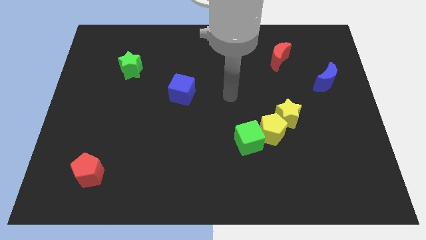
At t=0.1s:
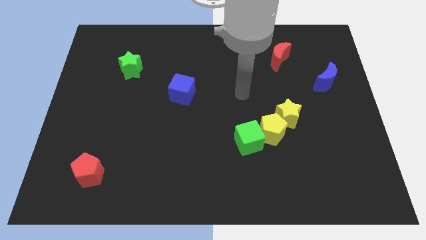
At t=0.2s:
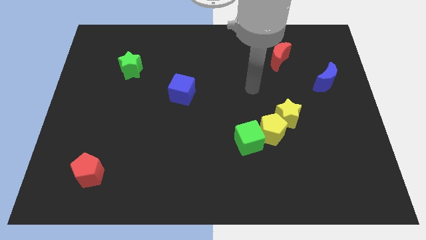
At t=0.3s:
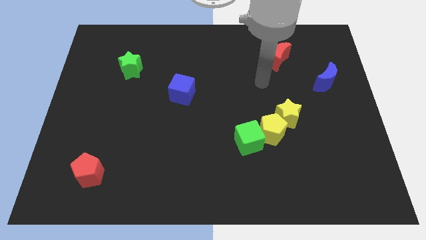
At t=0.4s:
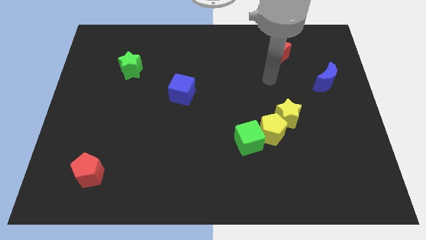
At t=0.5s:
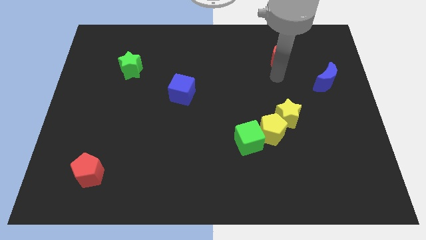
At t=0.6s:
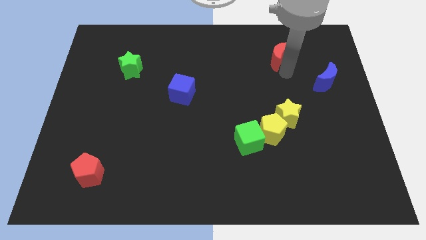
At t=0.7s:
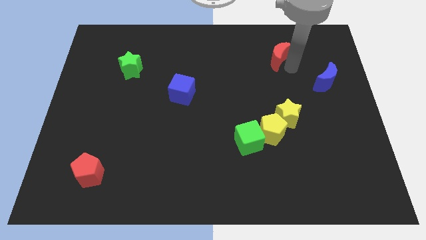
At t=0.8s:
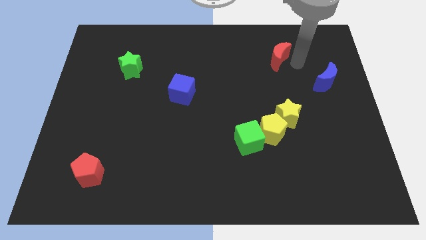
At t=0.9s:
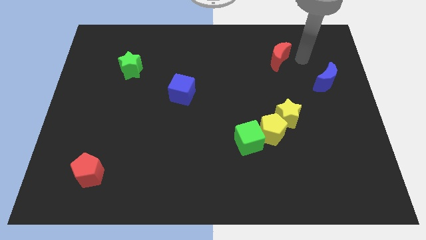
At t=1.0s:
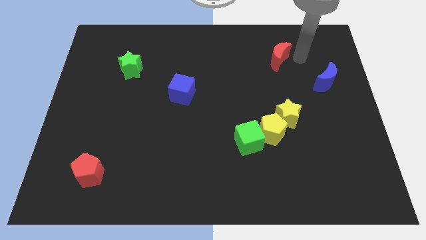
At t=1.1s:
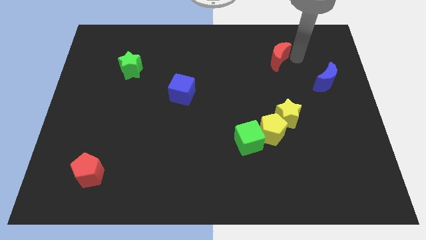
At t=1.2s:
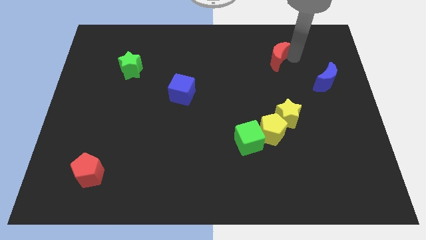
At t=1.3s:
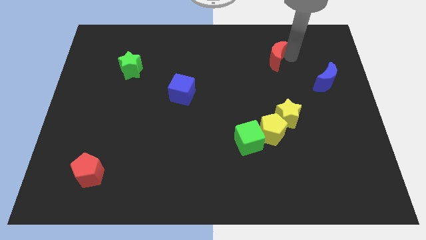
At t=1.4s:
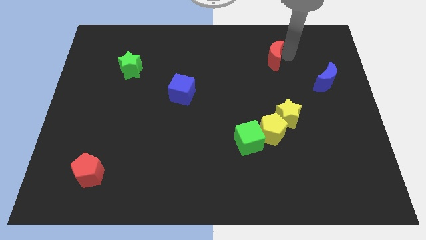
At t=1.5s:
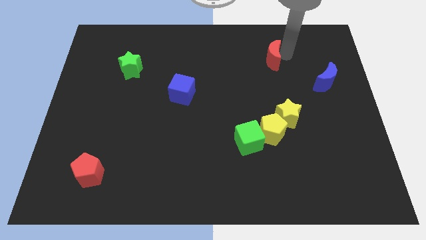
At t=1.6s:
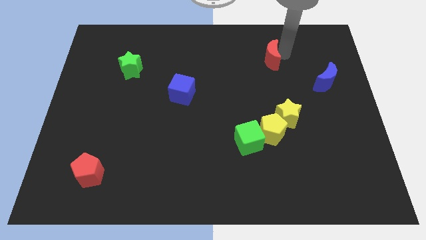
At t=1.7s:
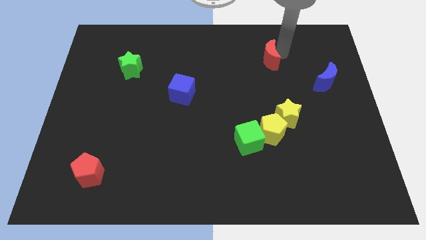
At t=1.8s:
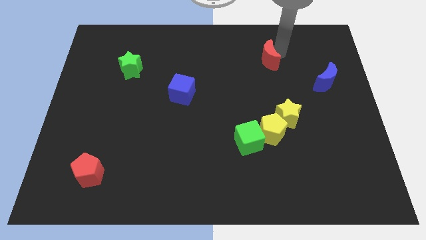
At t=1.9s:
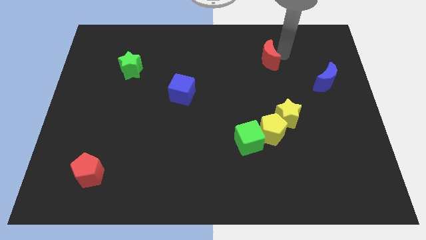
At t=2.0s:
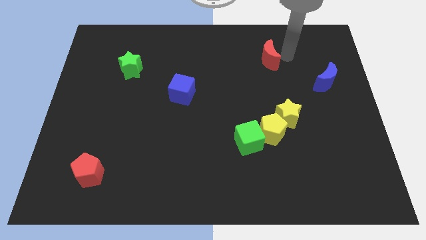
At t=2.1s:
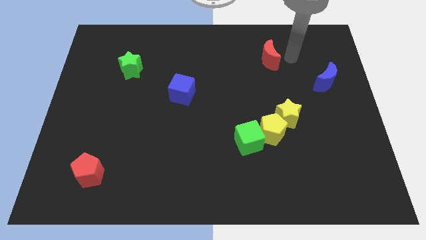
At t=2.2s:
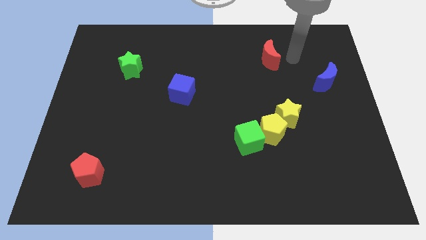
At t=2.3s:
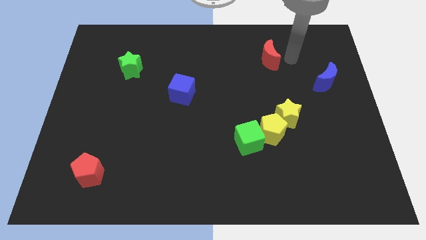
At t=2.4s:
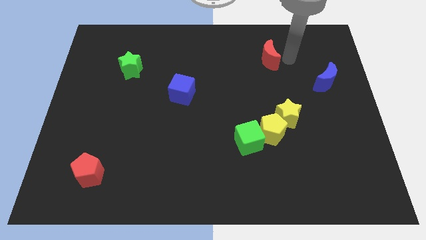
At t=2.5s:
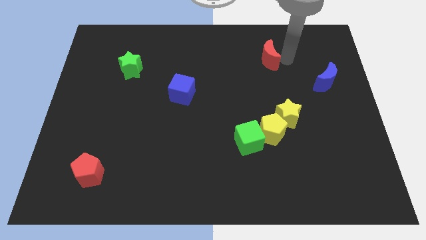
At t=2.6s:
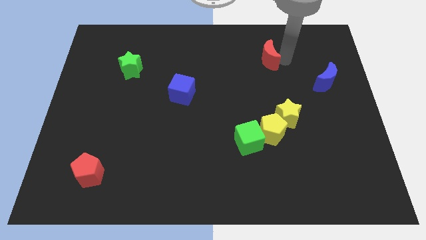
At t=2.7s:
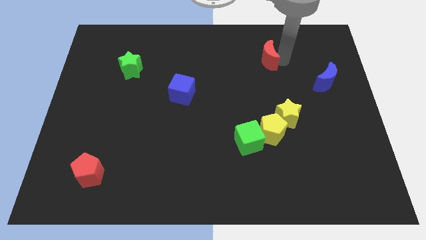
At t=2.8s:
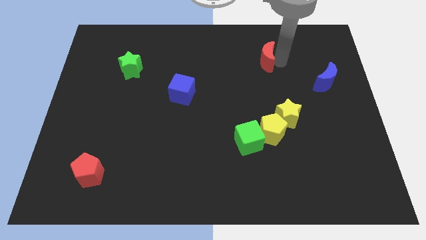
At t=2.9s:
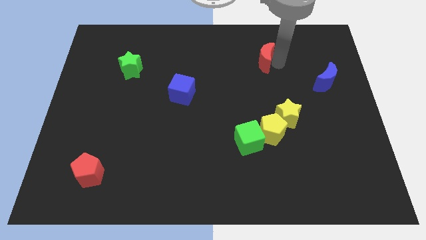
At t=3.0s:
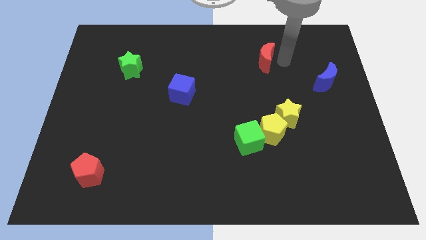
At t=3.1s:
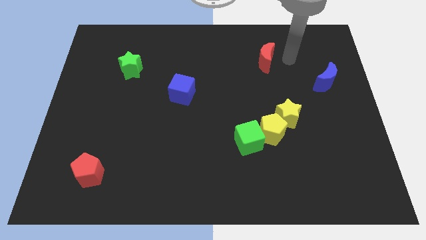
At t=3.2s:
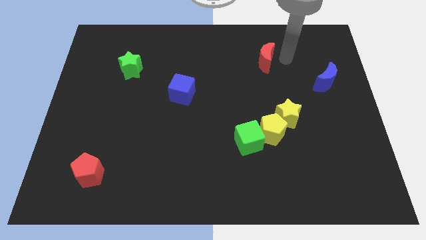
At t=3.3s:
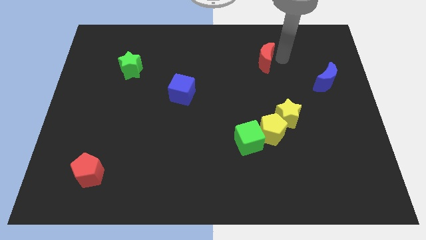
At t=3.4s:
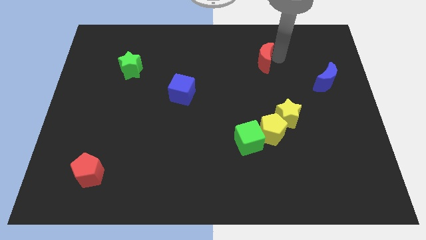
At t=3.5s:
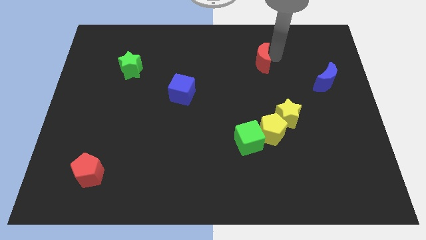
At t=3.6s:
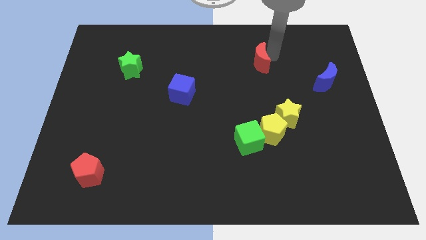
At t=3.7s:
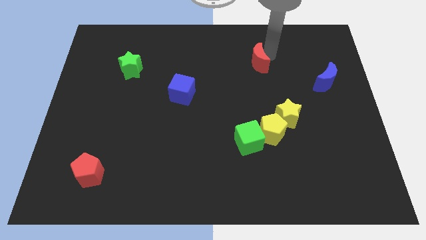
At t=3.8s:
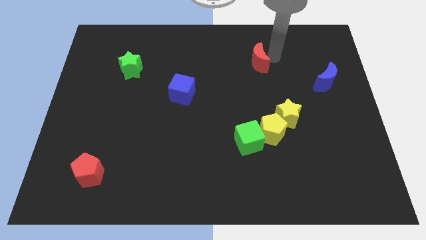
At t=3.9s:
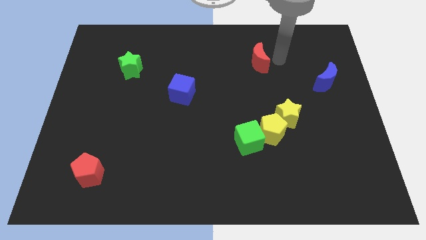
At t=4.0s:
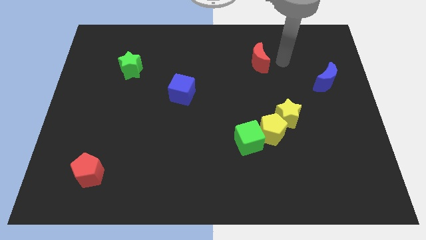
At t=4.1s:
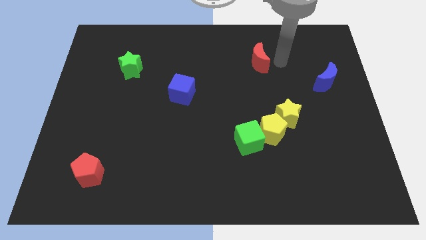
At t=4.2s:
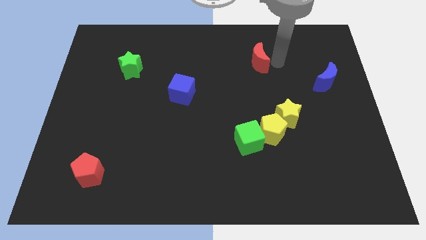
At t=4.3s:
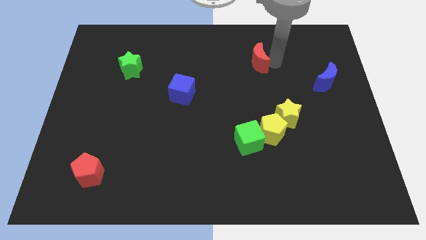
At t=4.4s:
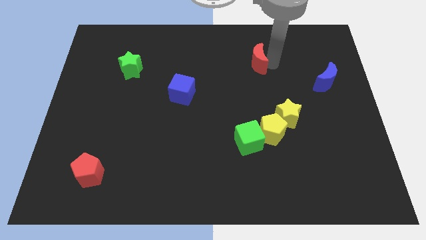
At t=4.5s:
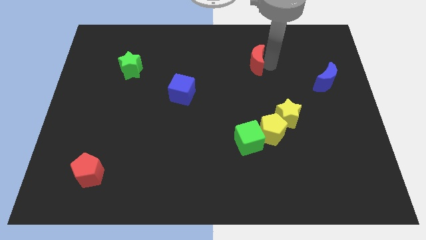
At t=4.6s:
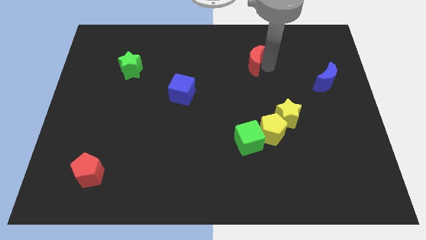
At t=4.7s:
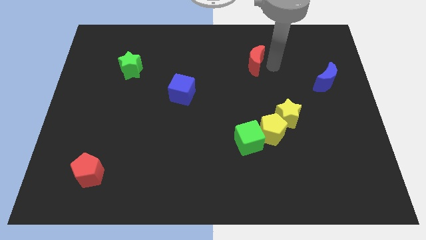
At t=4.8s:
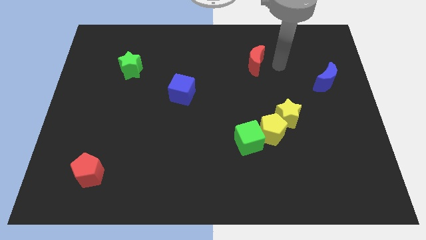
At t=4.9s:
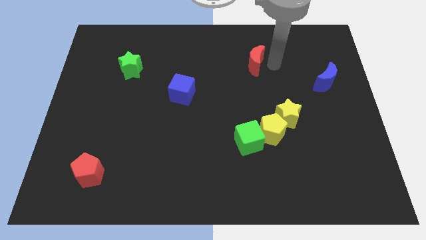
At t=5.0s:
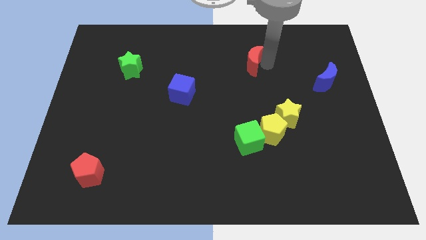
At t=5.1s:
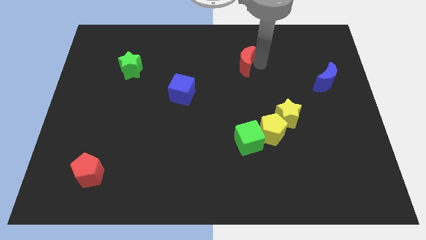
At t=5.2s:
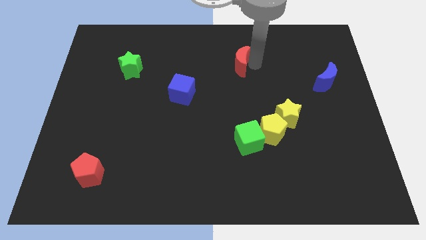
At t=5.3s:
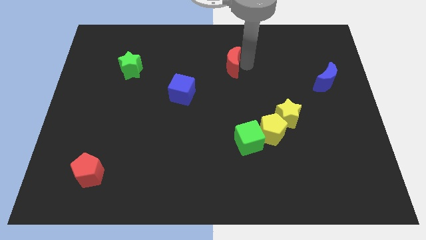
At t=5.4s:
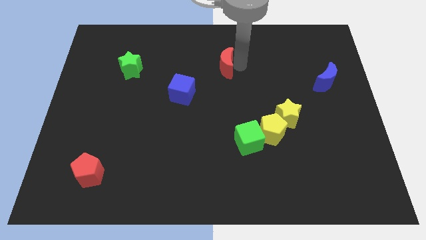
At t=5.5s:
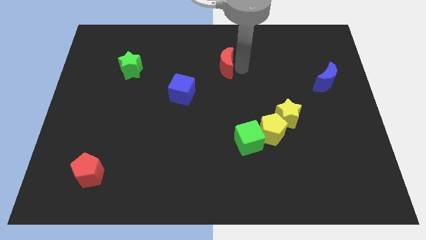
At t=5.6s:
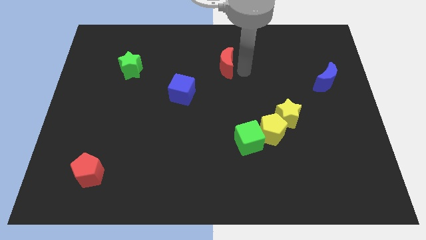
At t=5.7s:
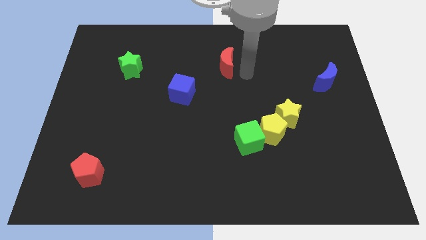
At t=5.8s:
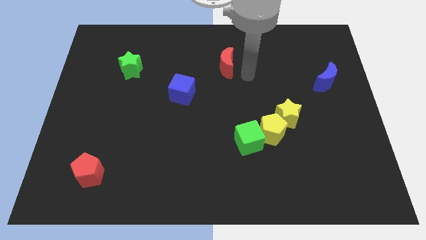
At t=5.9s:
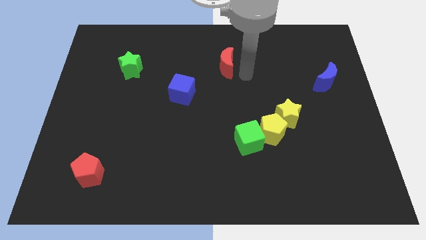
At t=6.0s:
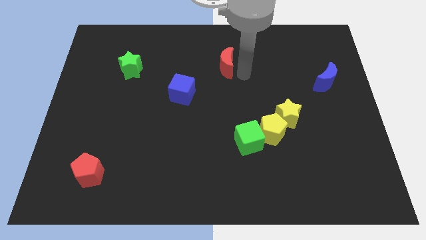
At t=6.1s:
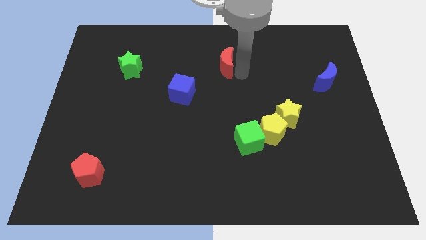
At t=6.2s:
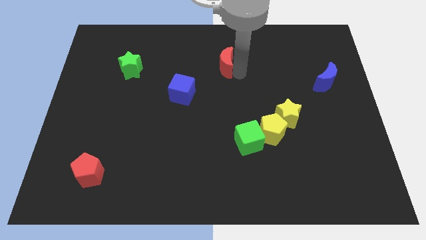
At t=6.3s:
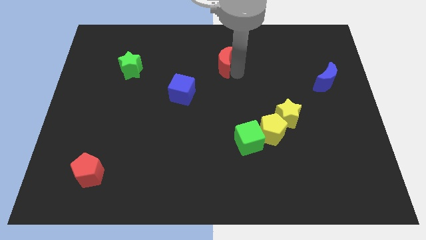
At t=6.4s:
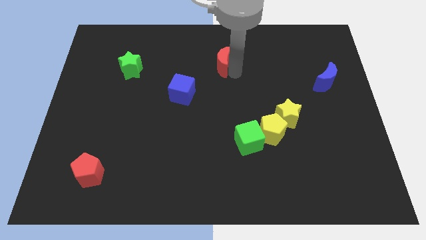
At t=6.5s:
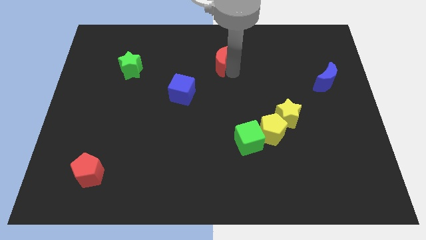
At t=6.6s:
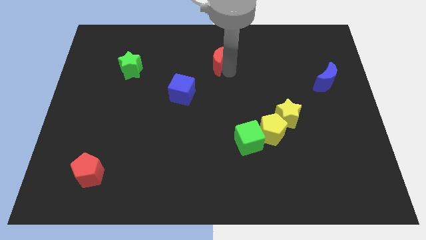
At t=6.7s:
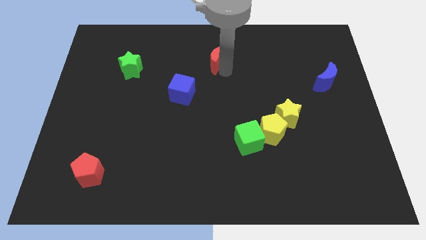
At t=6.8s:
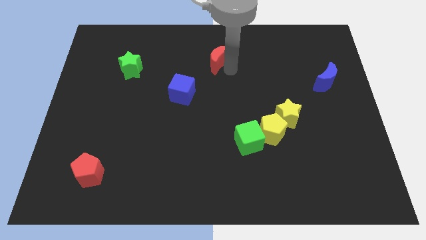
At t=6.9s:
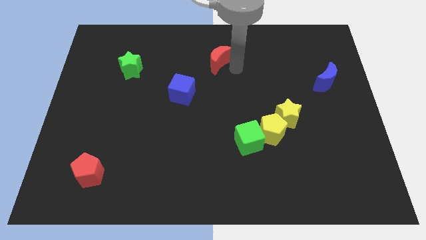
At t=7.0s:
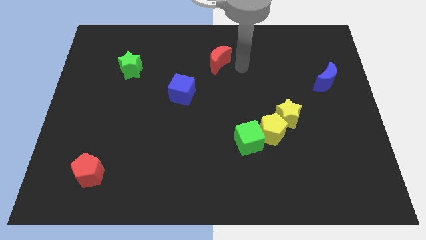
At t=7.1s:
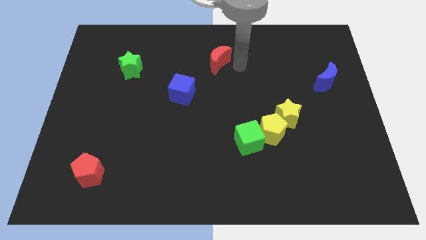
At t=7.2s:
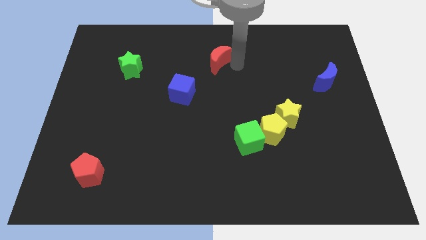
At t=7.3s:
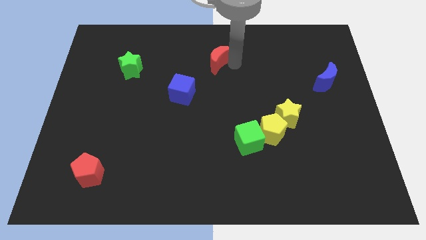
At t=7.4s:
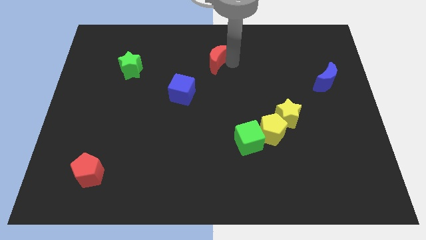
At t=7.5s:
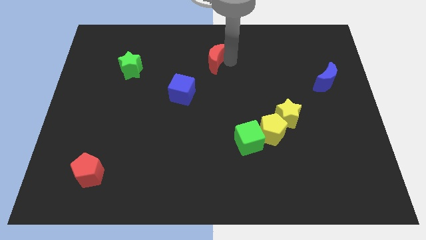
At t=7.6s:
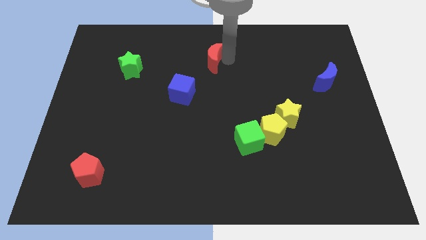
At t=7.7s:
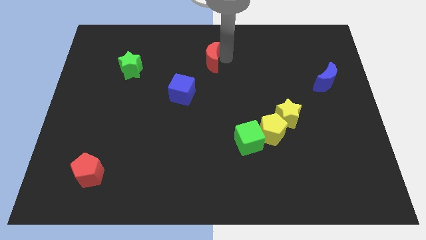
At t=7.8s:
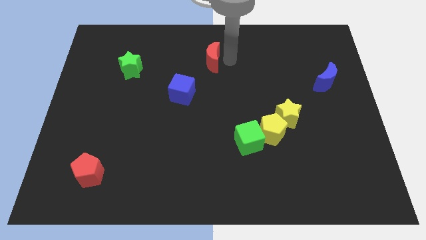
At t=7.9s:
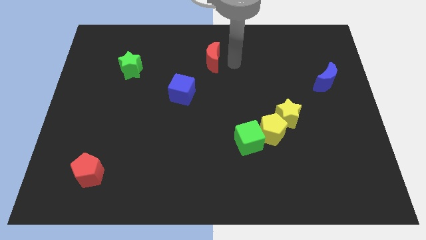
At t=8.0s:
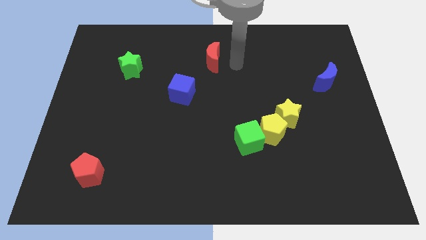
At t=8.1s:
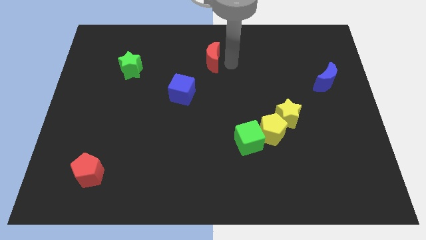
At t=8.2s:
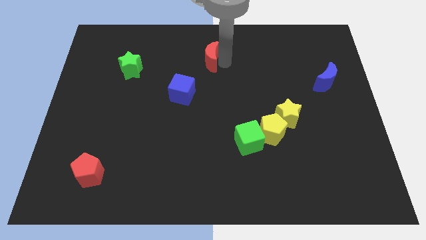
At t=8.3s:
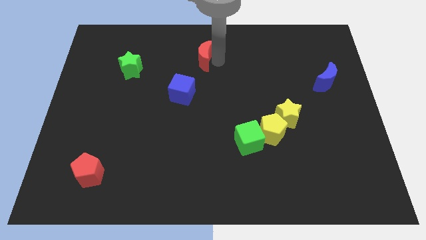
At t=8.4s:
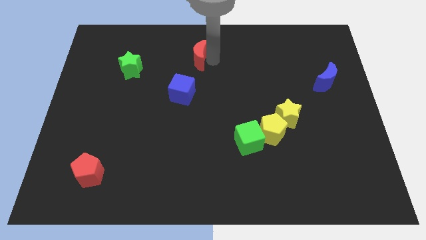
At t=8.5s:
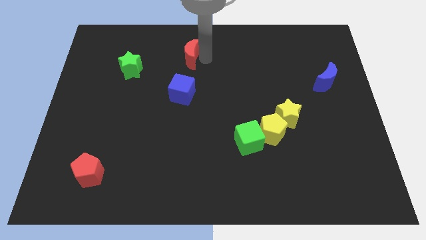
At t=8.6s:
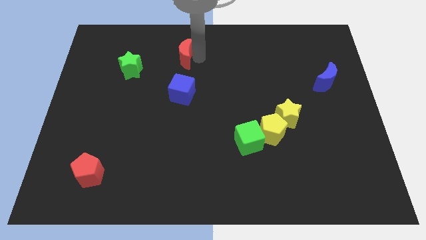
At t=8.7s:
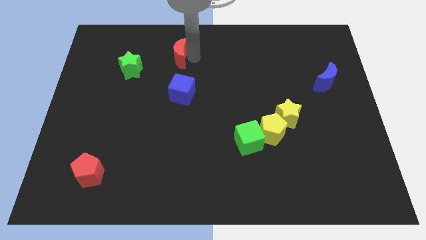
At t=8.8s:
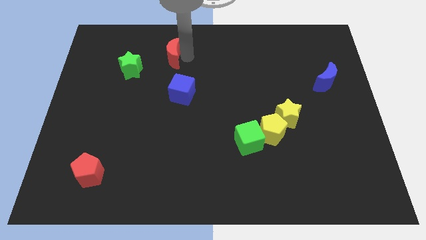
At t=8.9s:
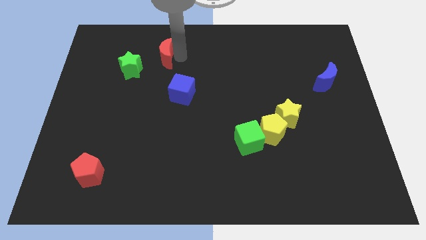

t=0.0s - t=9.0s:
move the red moon to the top right of the green star
